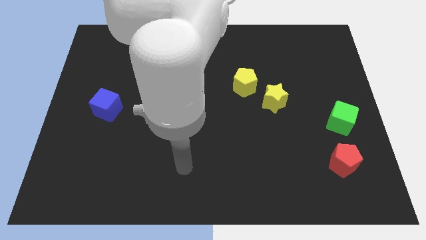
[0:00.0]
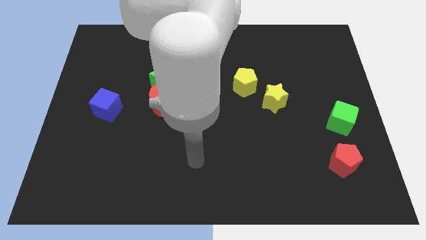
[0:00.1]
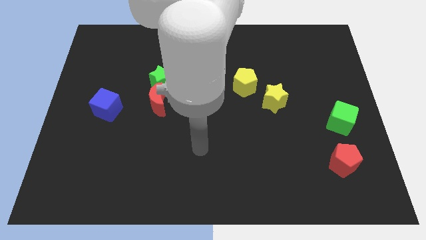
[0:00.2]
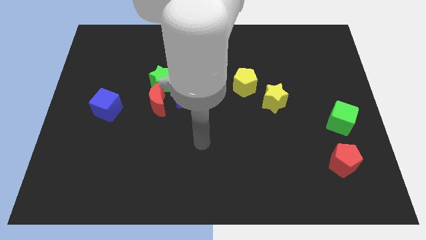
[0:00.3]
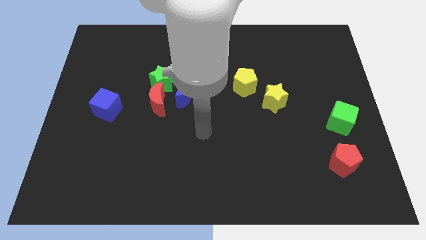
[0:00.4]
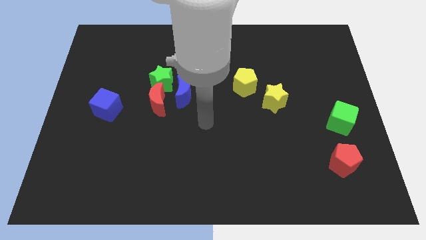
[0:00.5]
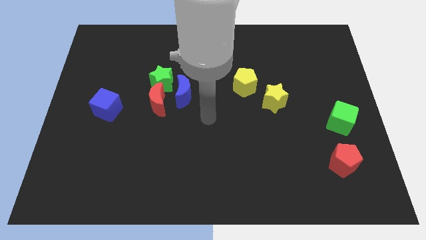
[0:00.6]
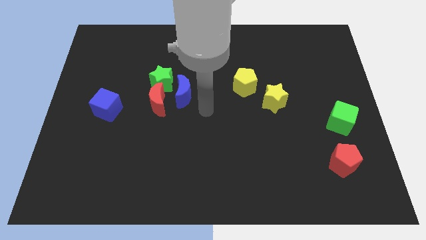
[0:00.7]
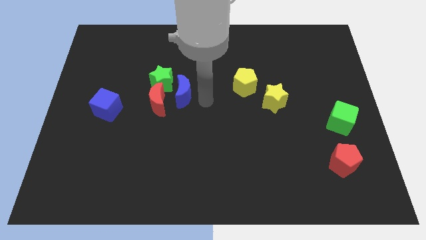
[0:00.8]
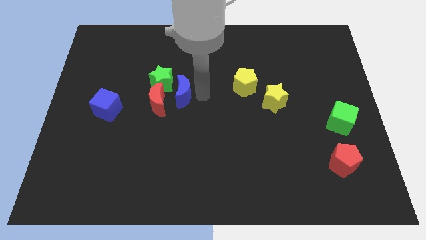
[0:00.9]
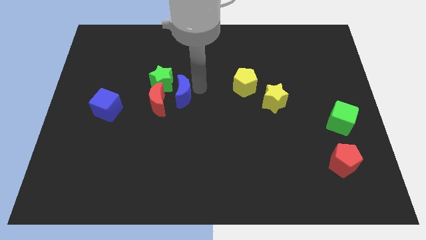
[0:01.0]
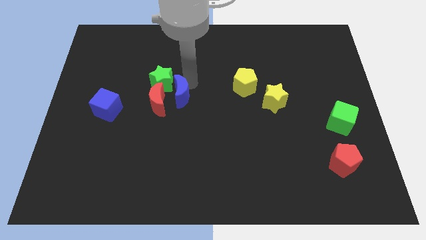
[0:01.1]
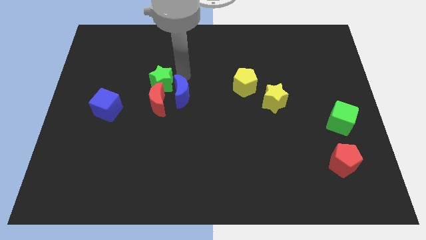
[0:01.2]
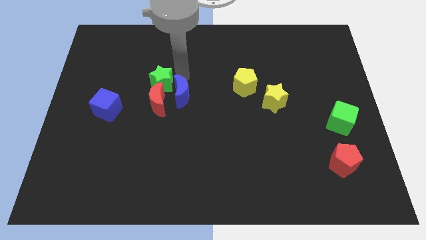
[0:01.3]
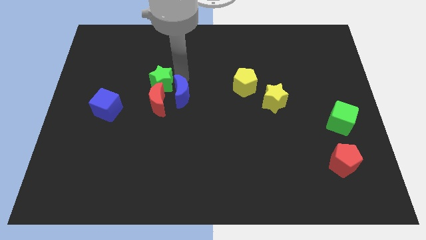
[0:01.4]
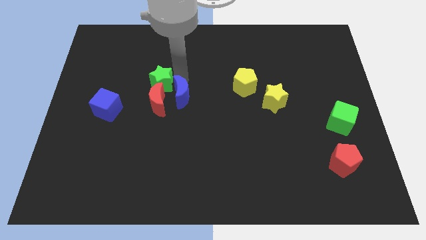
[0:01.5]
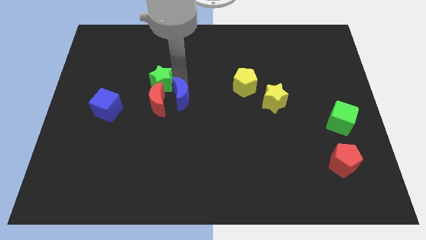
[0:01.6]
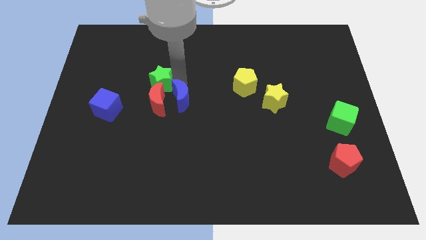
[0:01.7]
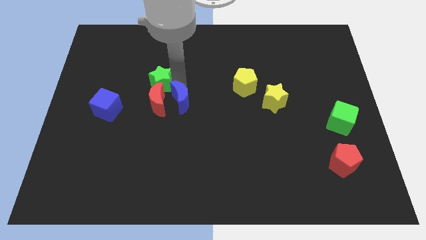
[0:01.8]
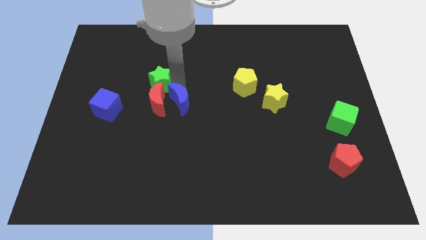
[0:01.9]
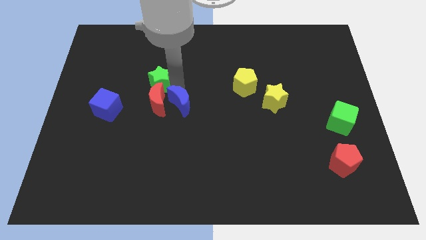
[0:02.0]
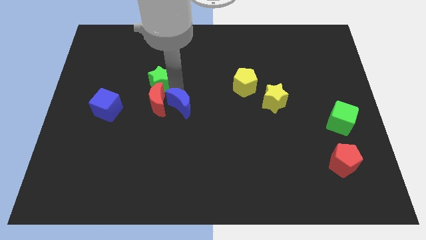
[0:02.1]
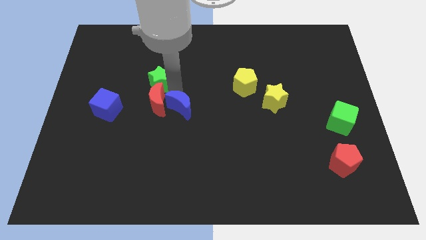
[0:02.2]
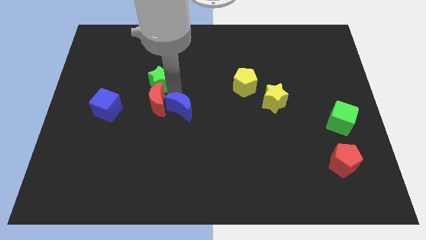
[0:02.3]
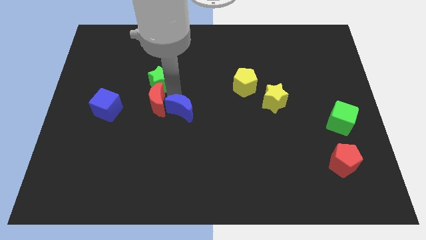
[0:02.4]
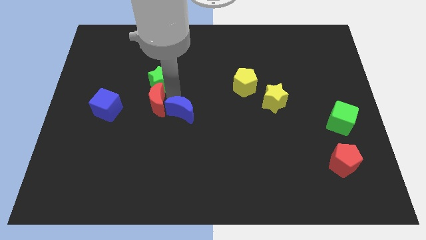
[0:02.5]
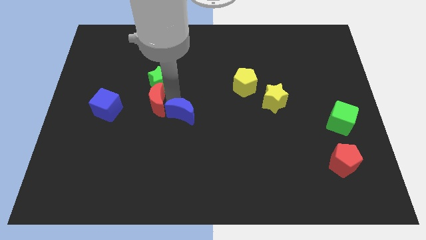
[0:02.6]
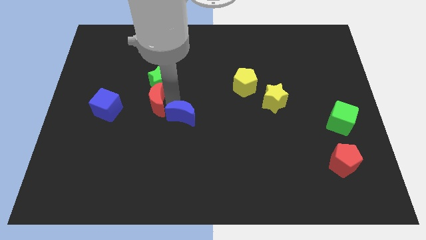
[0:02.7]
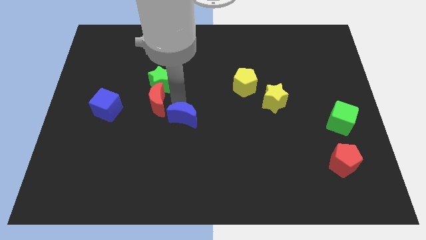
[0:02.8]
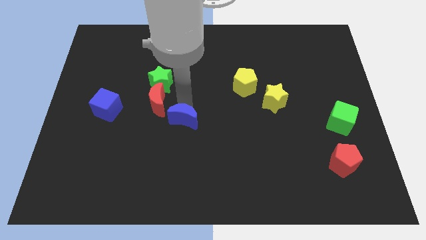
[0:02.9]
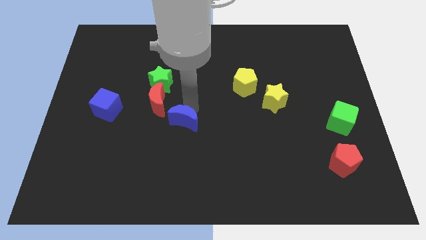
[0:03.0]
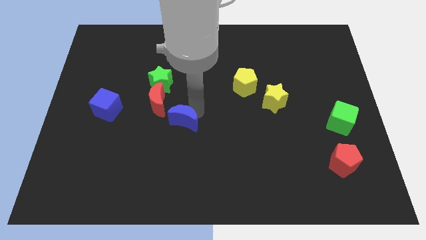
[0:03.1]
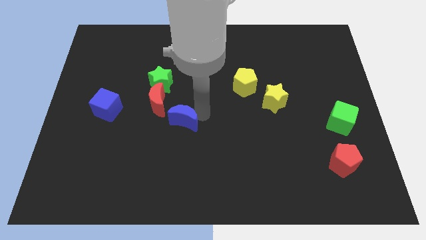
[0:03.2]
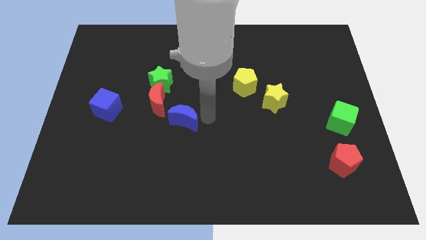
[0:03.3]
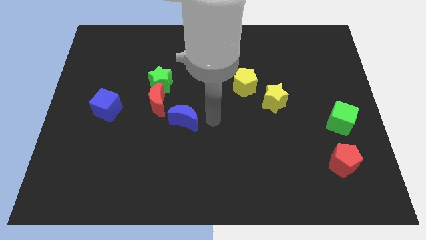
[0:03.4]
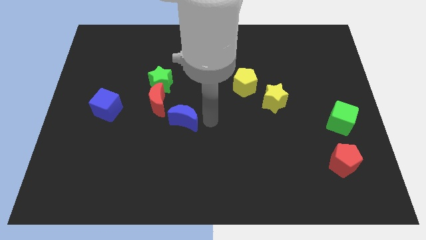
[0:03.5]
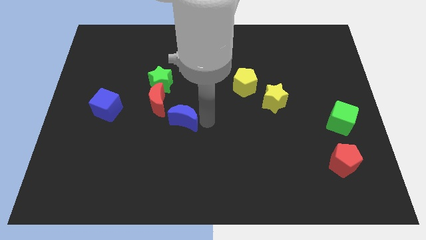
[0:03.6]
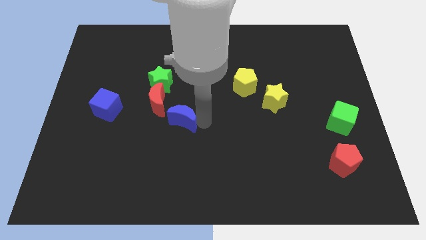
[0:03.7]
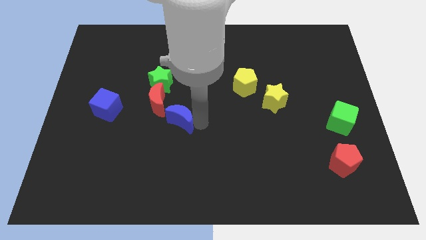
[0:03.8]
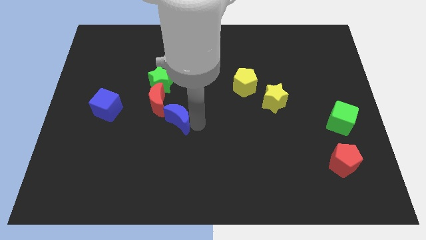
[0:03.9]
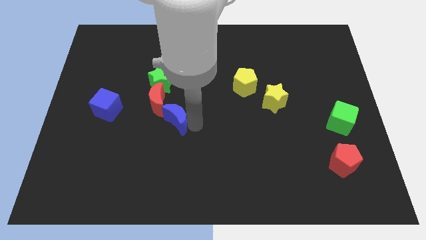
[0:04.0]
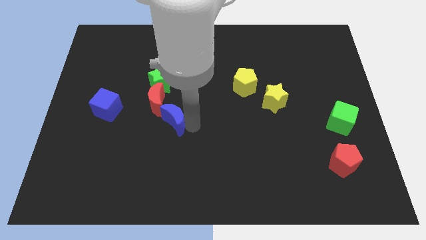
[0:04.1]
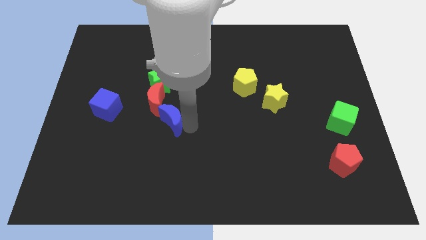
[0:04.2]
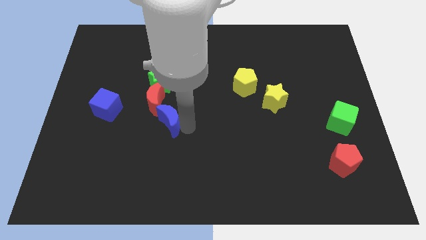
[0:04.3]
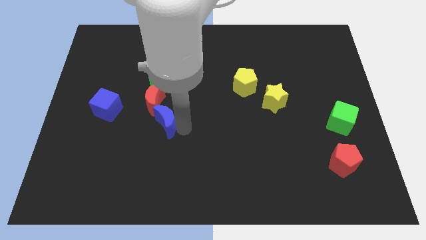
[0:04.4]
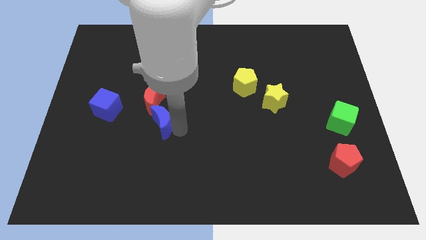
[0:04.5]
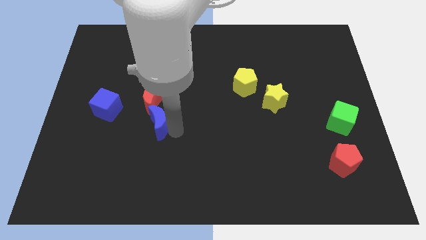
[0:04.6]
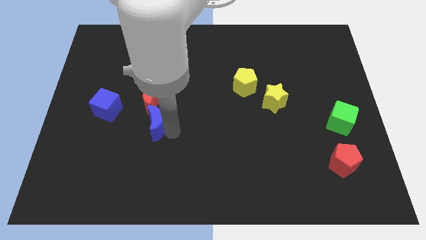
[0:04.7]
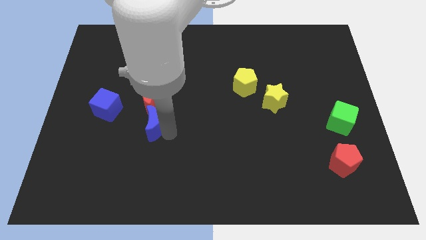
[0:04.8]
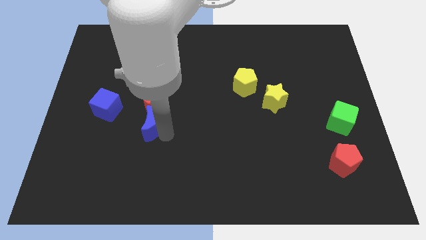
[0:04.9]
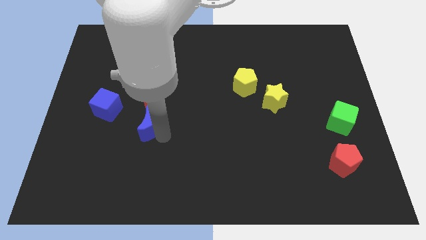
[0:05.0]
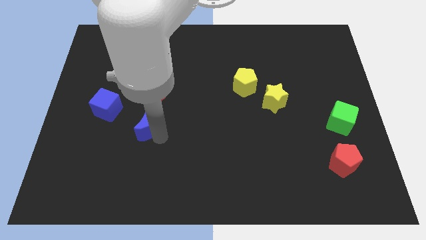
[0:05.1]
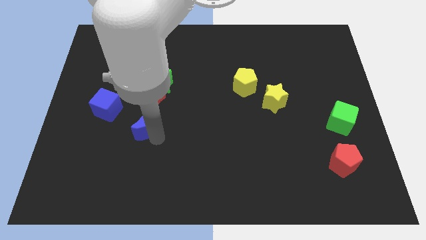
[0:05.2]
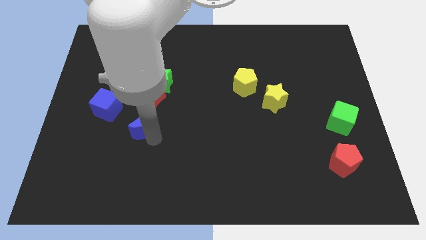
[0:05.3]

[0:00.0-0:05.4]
move the blue moon to the bottom left side of the red moon

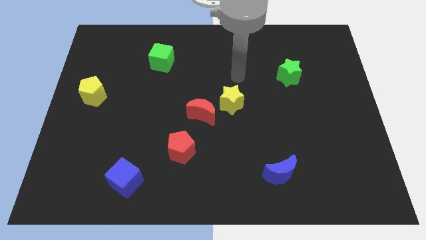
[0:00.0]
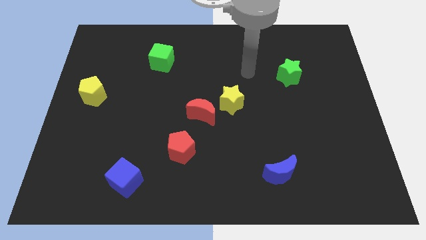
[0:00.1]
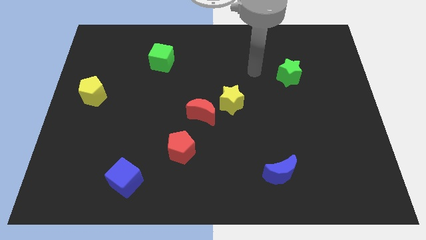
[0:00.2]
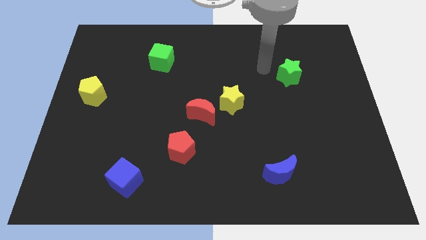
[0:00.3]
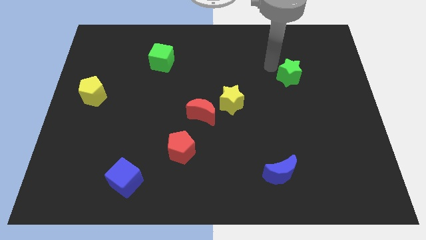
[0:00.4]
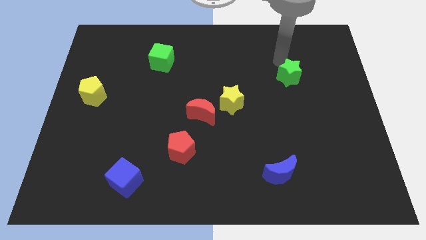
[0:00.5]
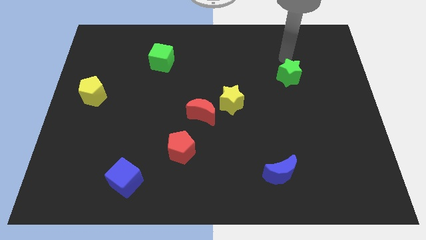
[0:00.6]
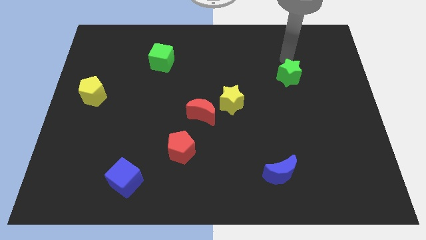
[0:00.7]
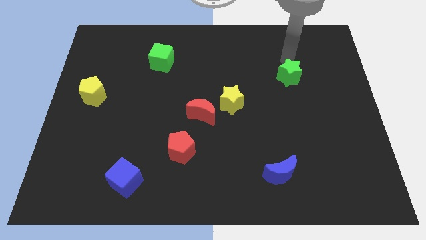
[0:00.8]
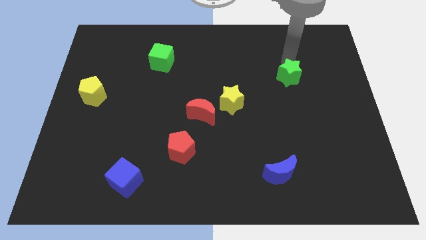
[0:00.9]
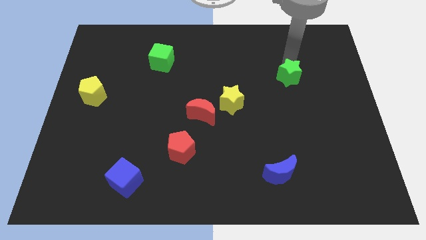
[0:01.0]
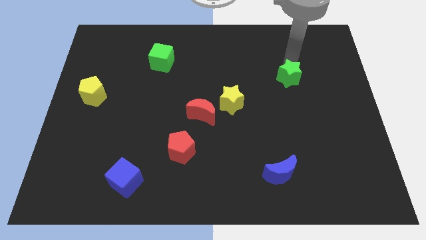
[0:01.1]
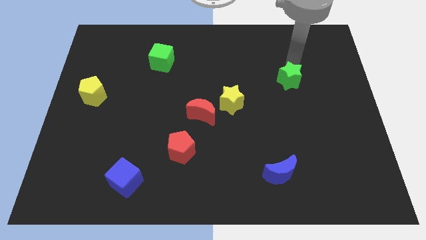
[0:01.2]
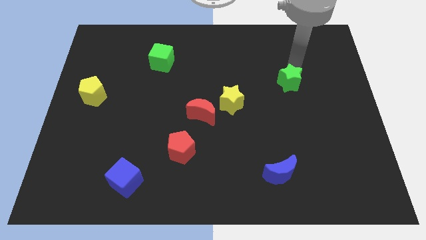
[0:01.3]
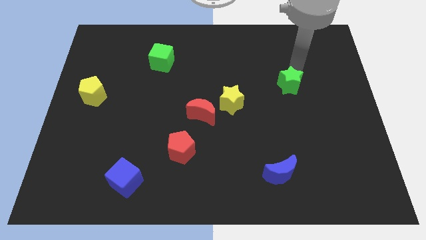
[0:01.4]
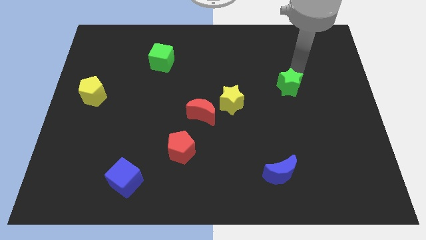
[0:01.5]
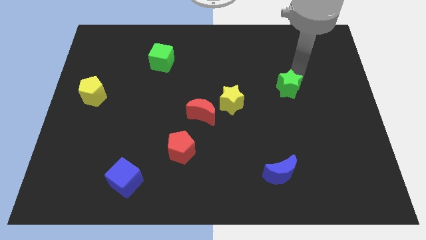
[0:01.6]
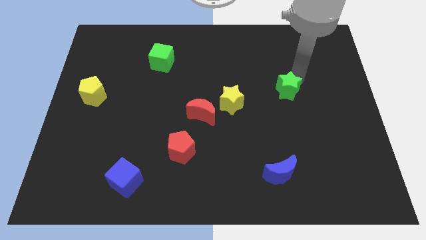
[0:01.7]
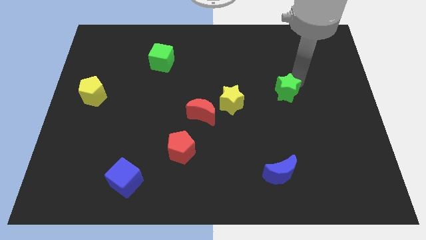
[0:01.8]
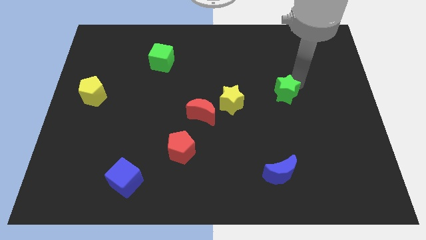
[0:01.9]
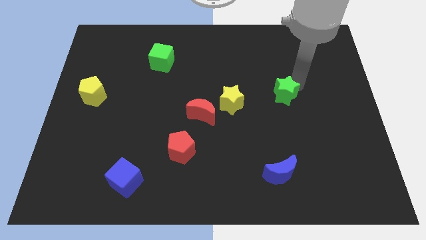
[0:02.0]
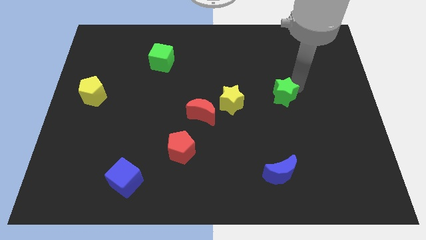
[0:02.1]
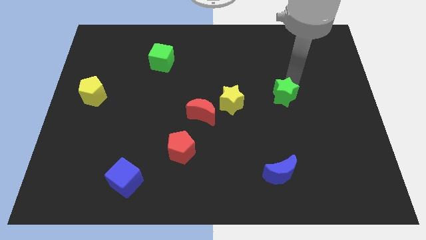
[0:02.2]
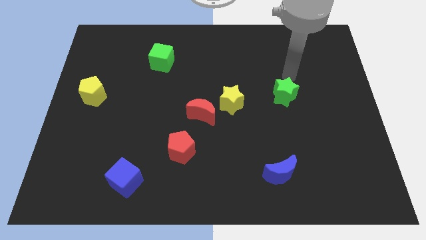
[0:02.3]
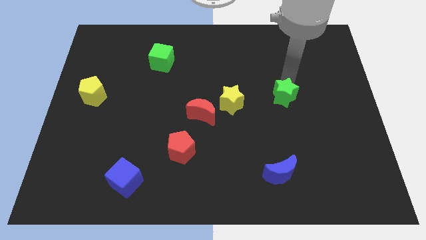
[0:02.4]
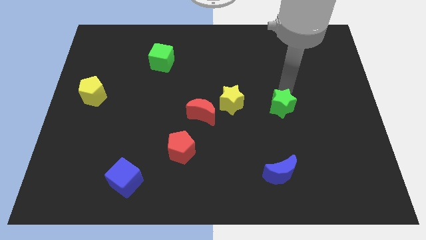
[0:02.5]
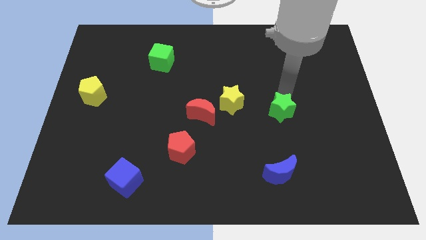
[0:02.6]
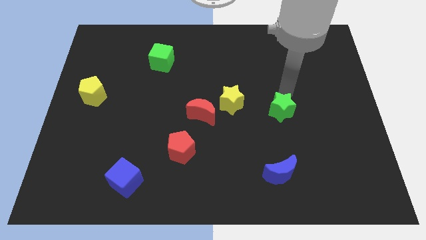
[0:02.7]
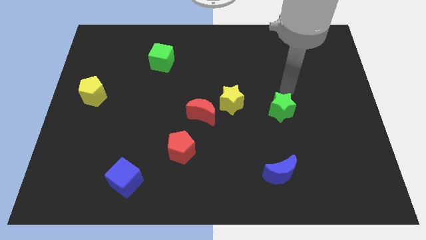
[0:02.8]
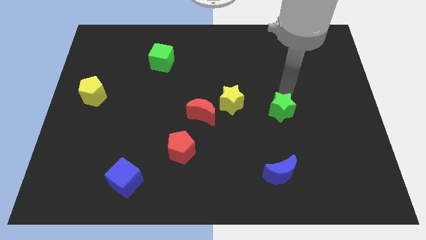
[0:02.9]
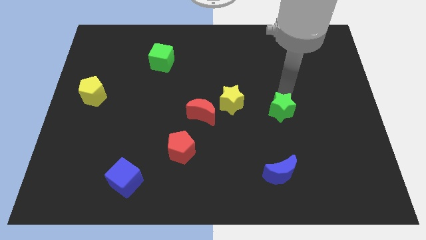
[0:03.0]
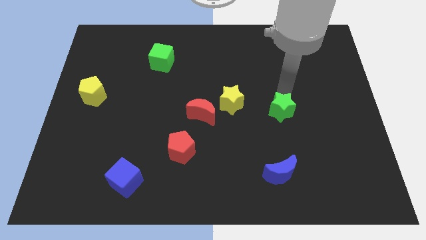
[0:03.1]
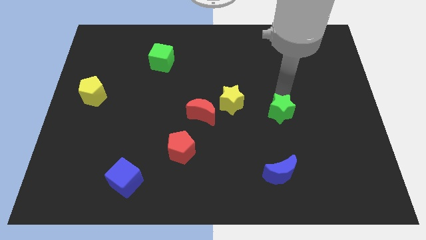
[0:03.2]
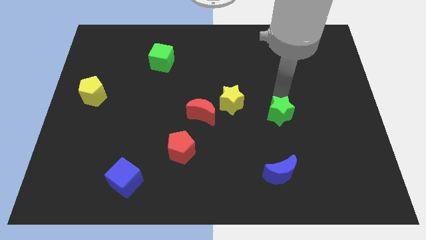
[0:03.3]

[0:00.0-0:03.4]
slide the green star above the blue moon
